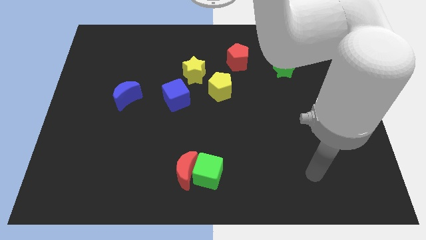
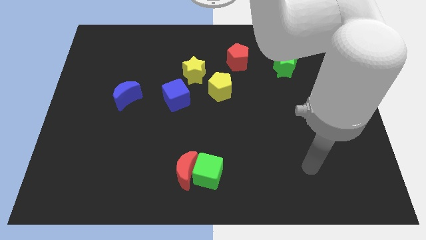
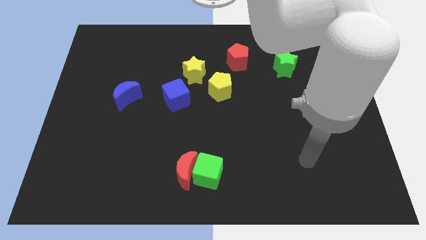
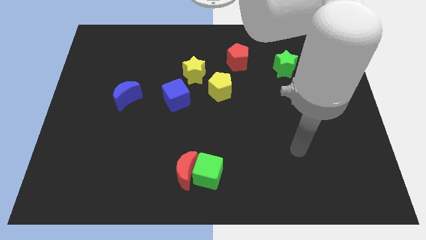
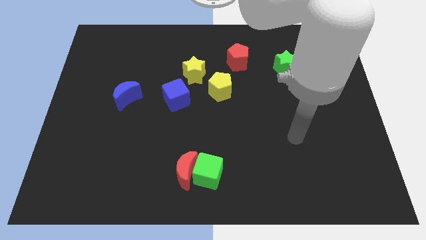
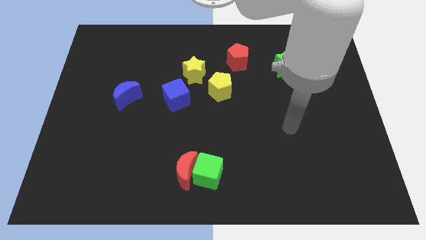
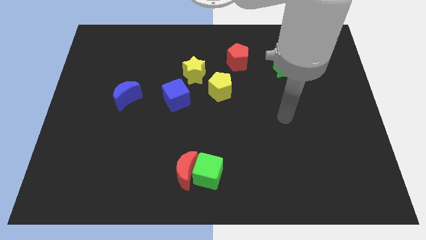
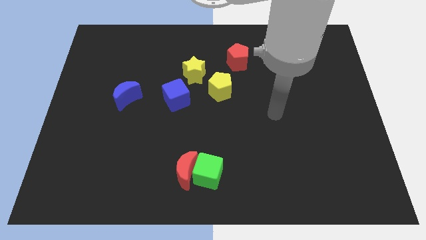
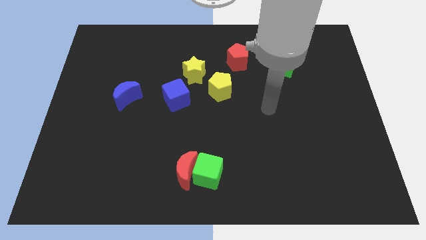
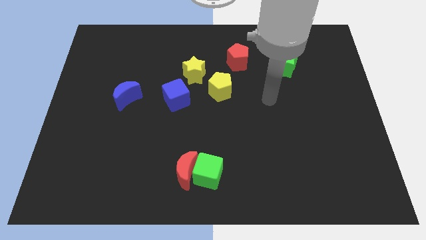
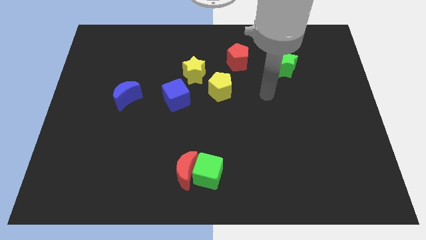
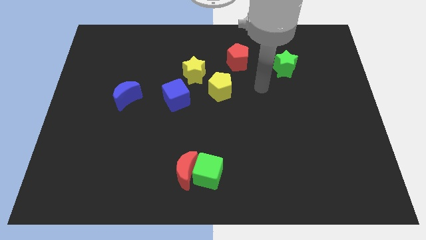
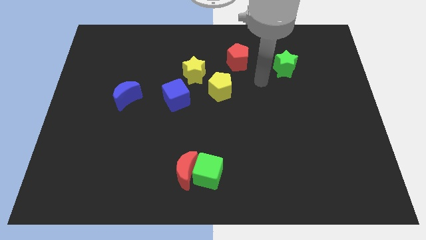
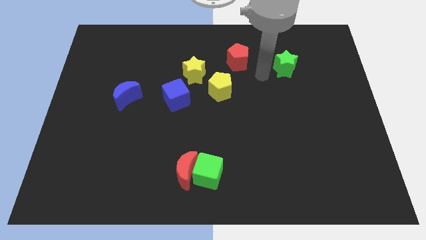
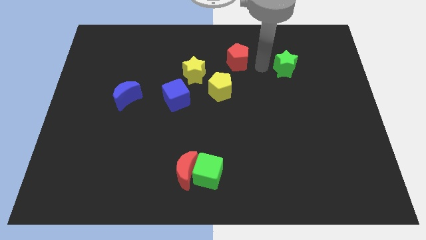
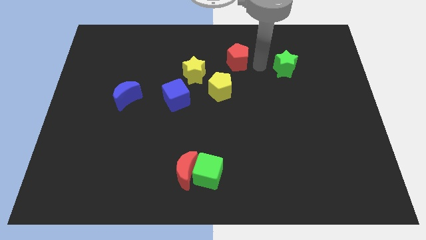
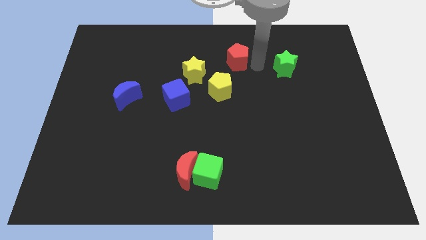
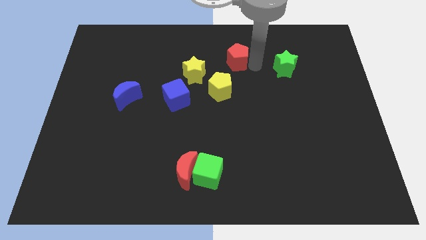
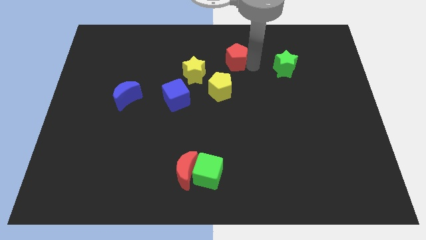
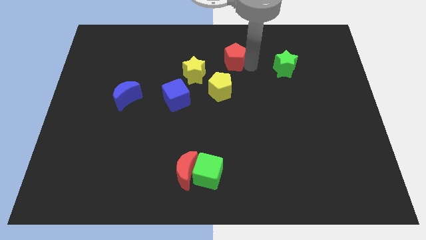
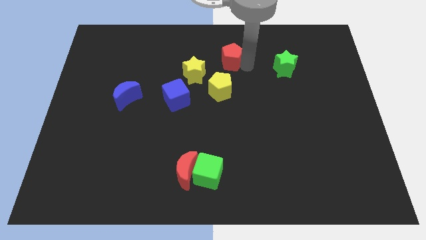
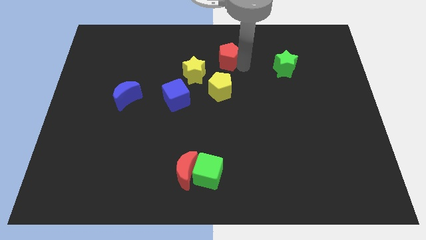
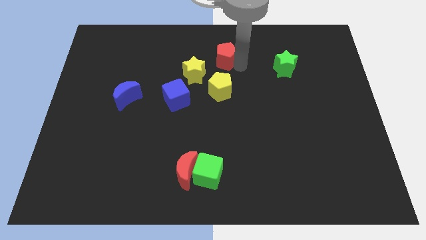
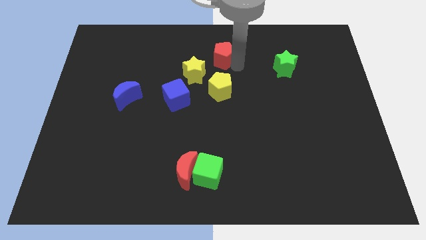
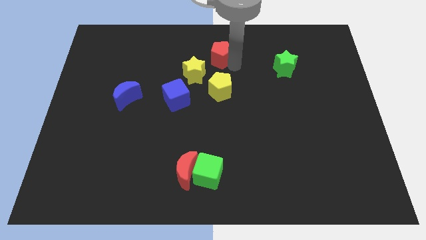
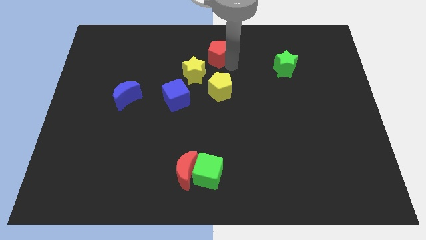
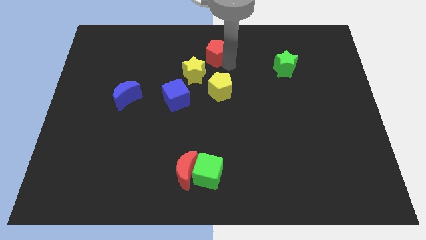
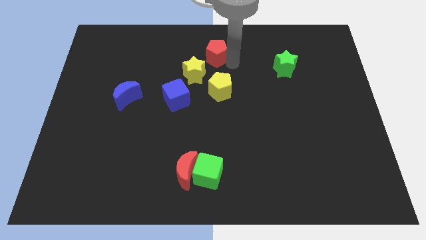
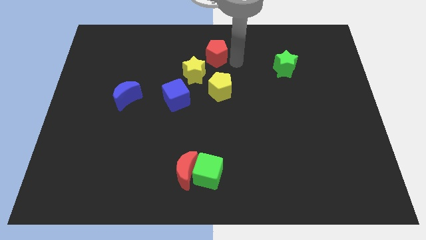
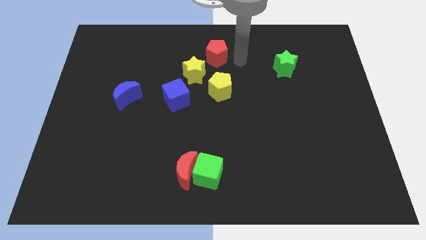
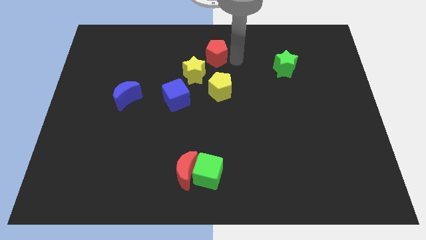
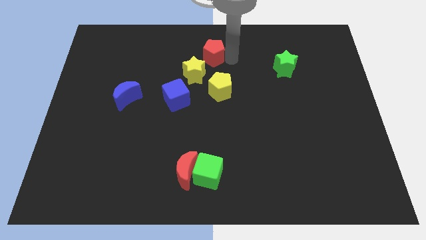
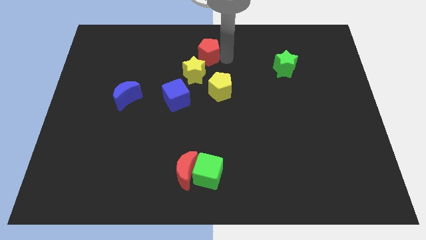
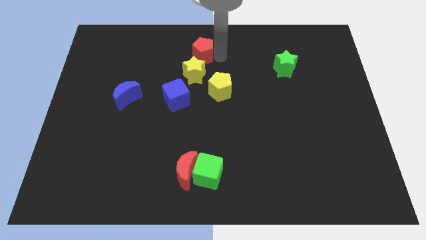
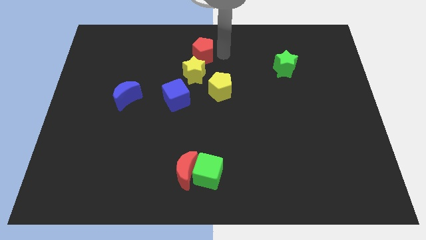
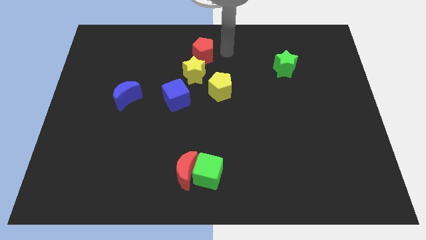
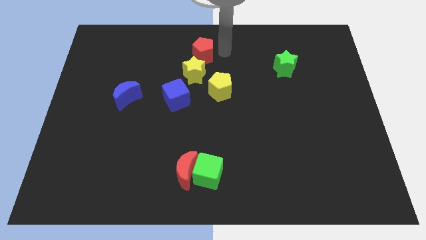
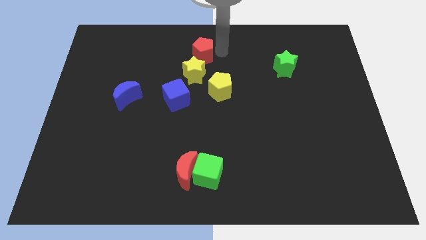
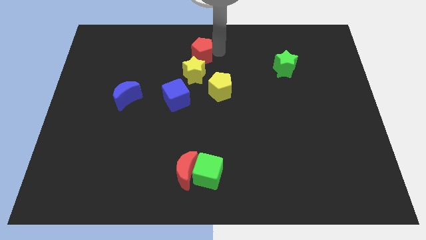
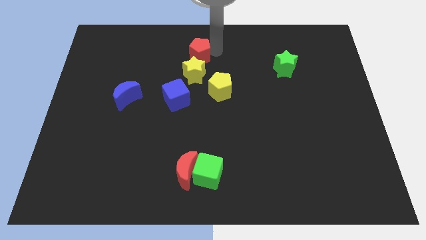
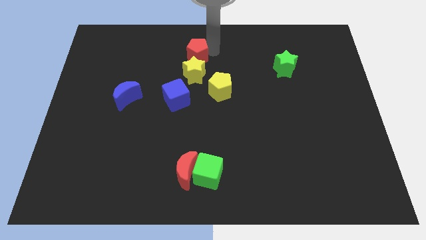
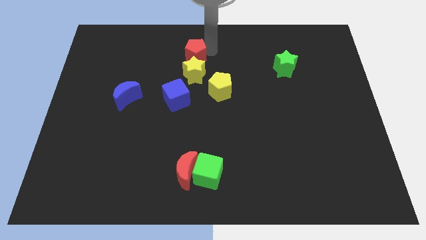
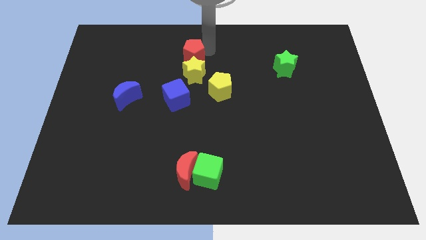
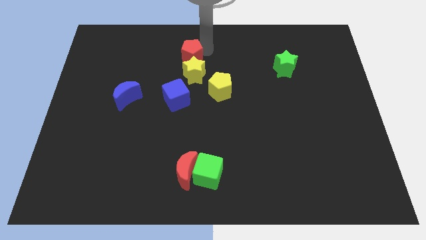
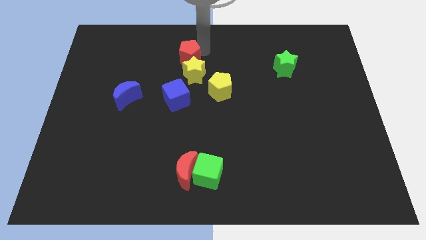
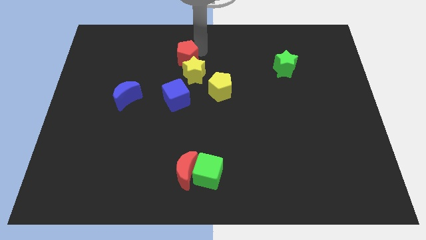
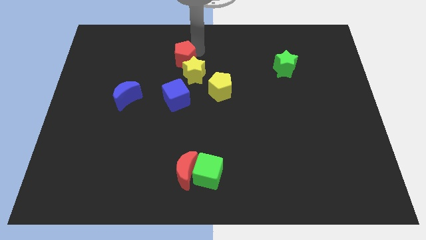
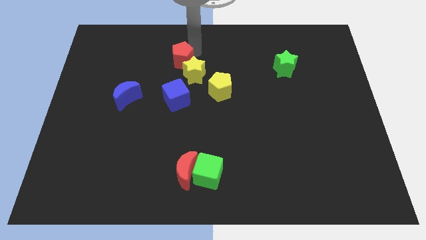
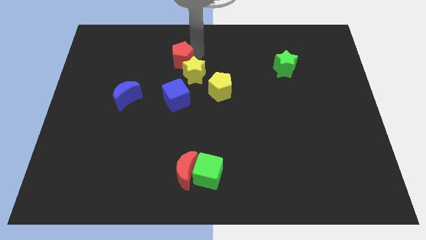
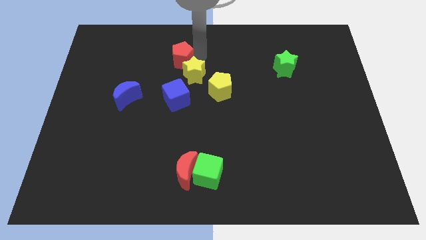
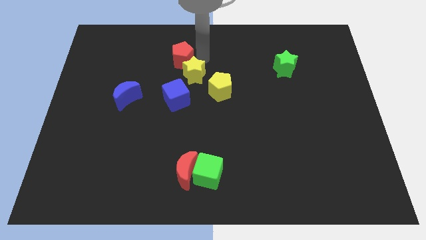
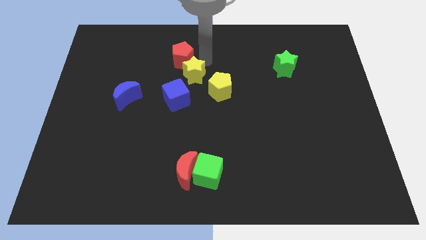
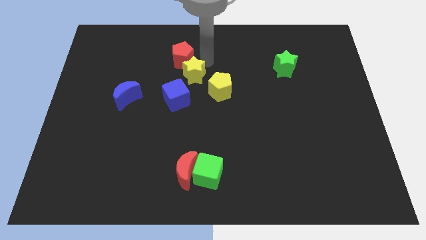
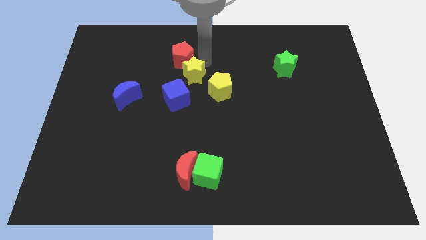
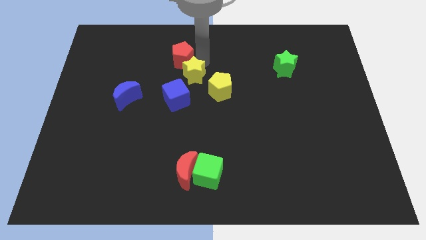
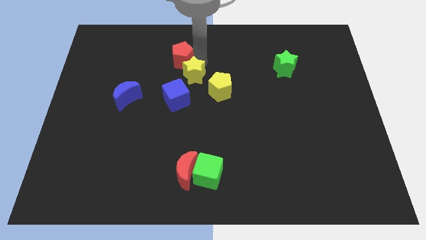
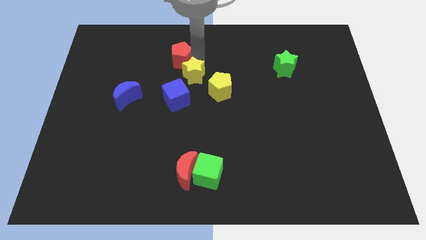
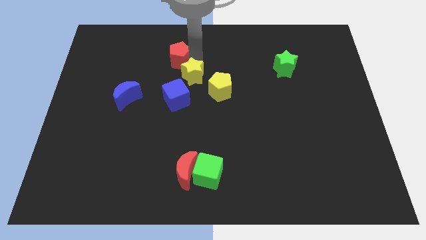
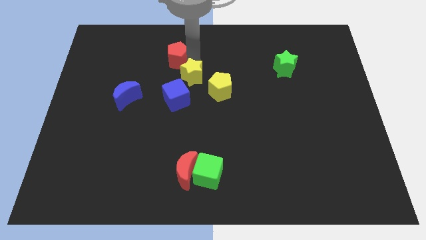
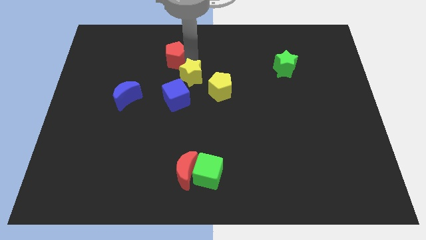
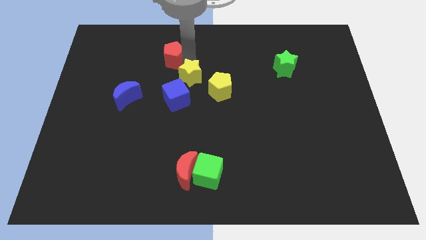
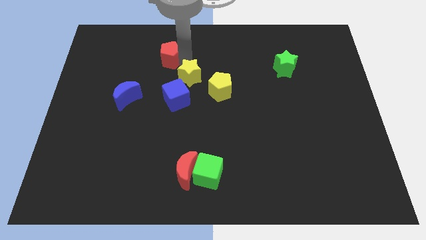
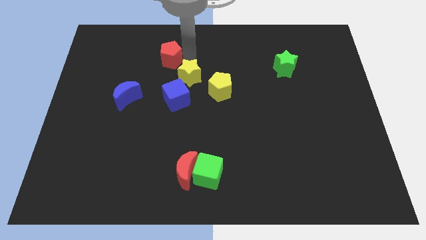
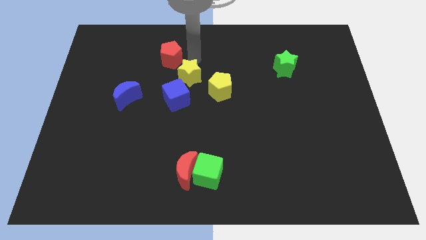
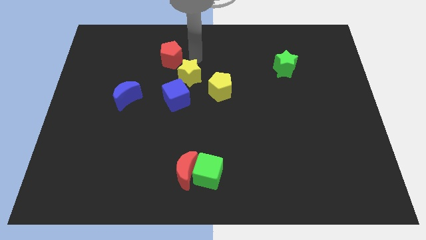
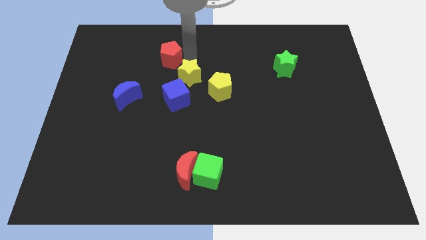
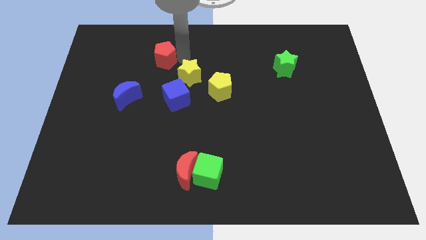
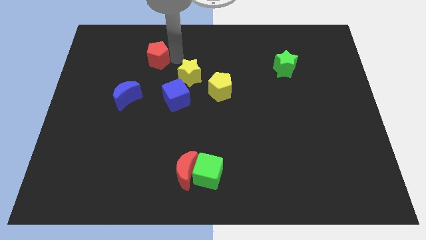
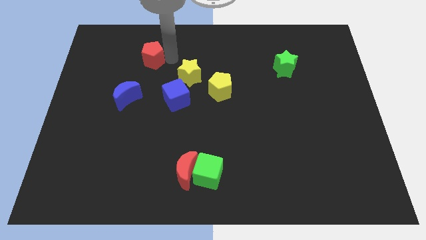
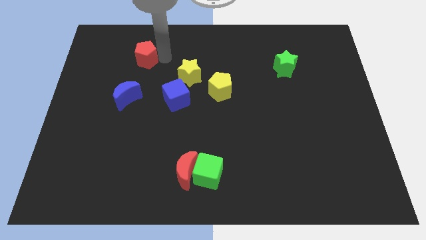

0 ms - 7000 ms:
move the red pentagon above the blue moon
